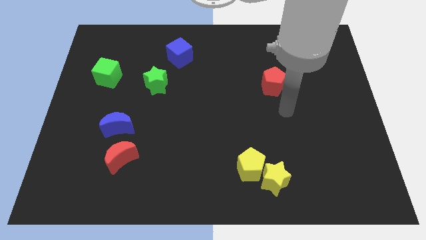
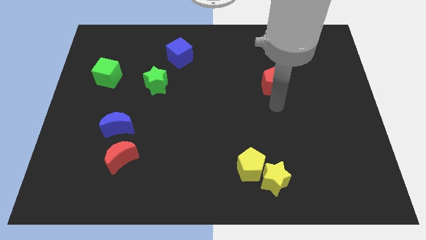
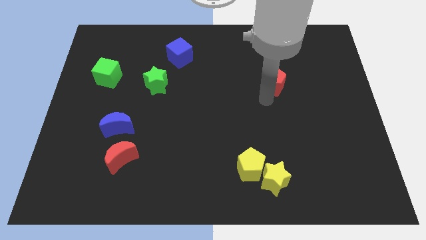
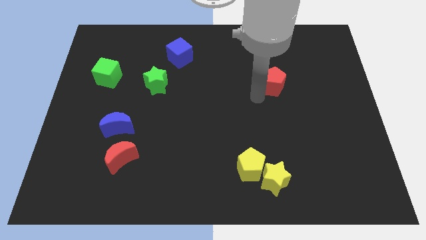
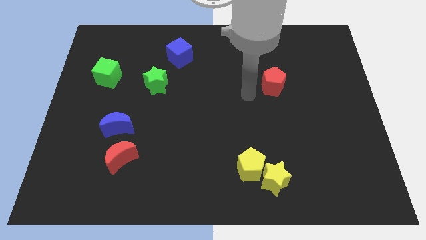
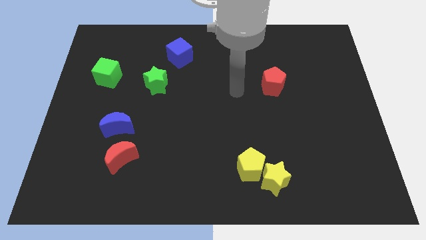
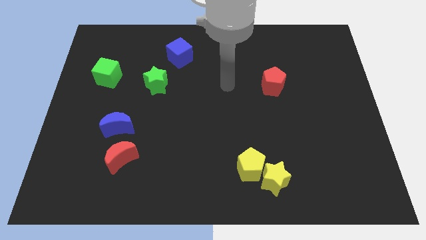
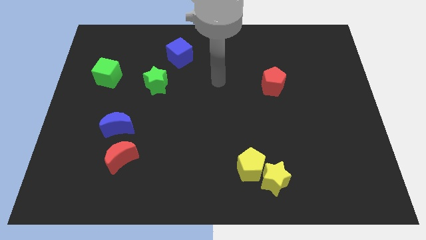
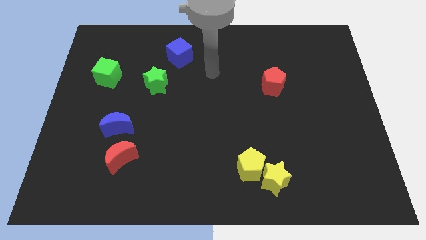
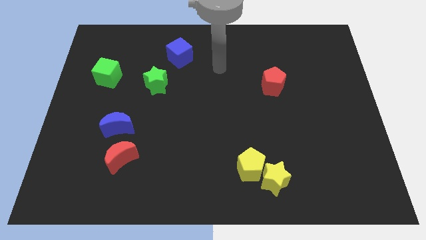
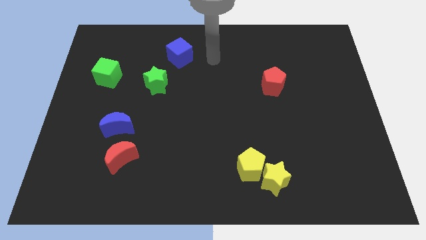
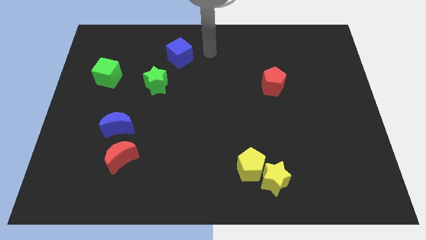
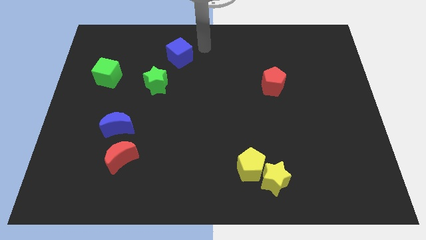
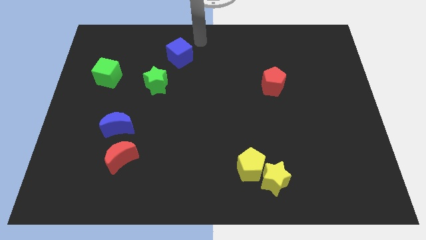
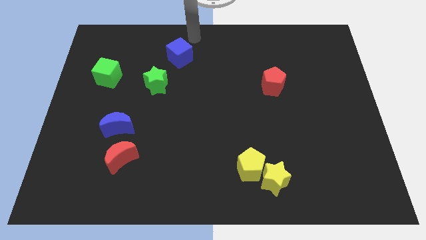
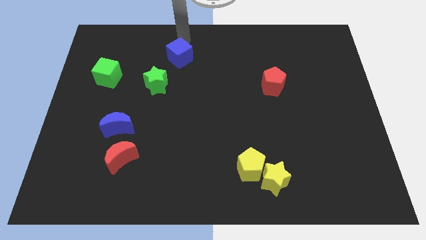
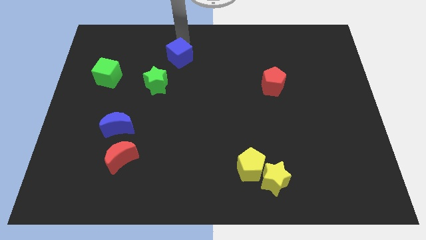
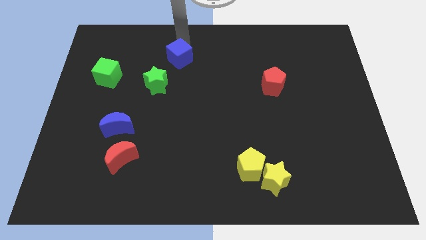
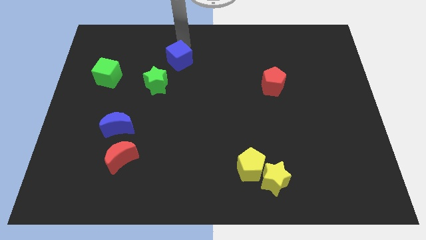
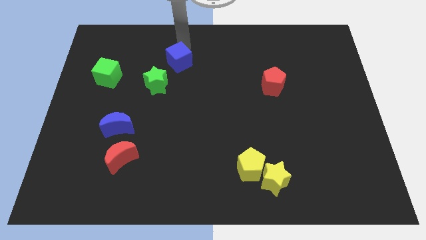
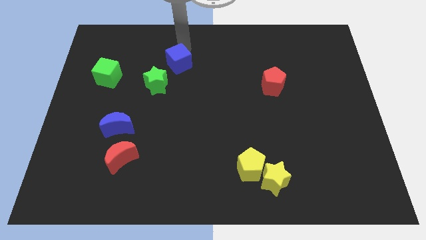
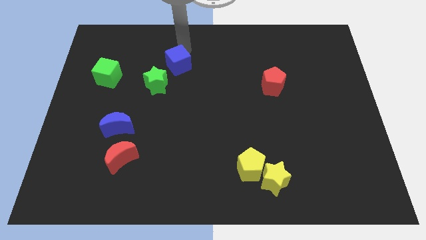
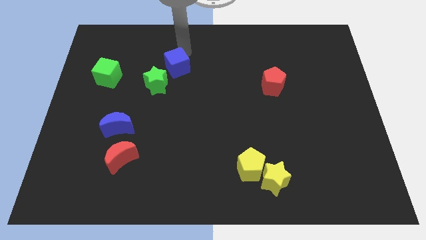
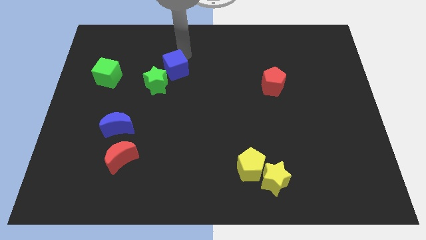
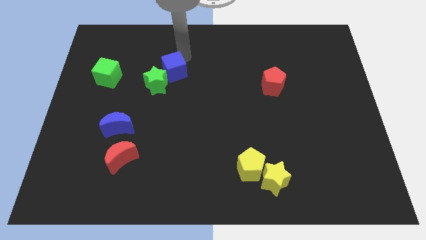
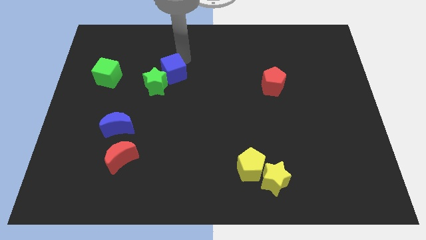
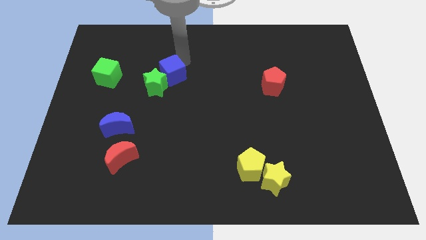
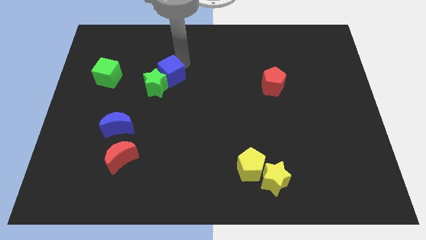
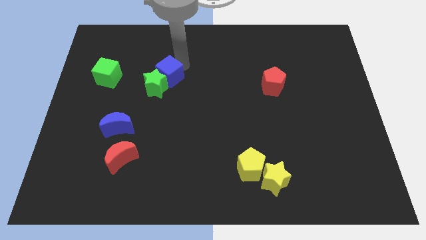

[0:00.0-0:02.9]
move the blue cube a little down

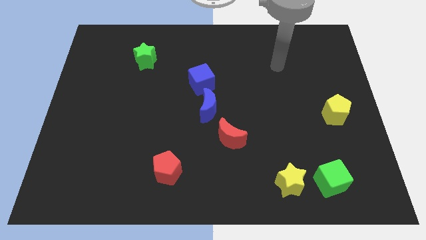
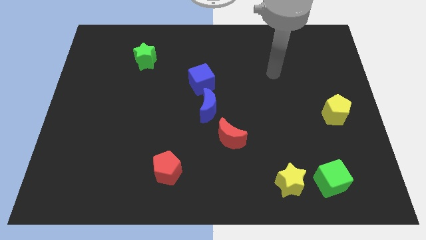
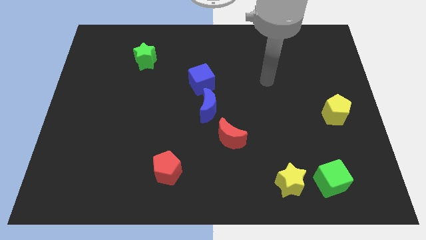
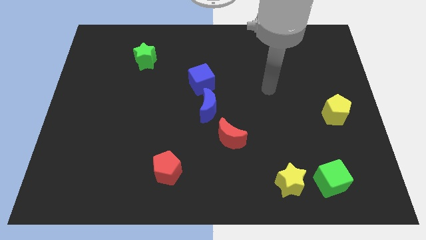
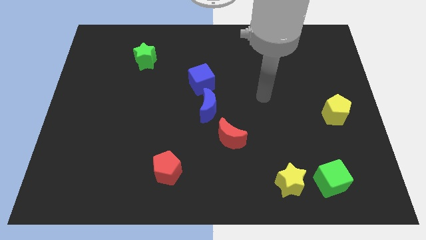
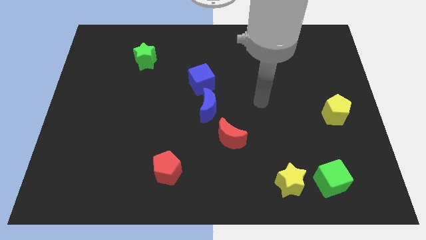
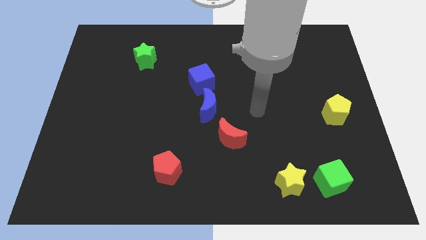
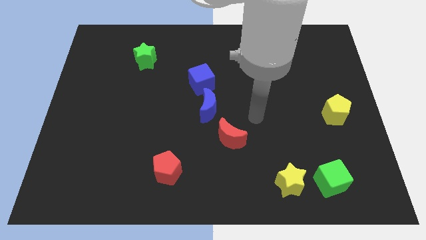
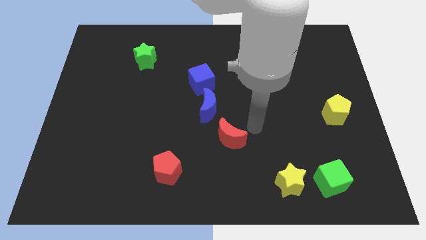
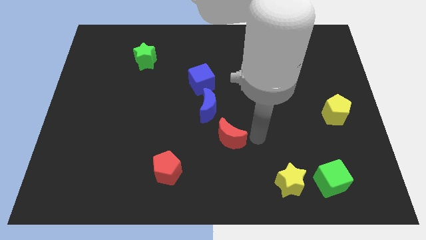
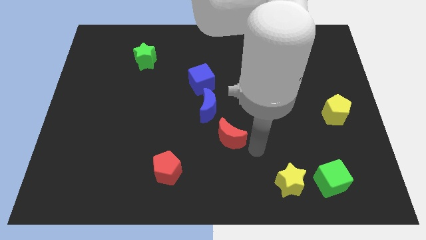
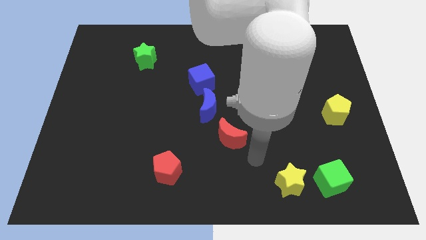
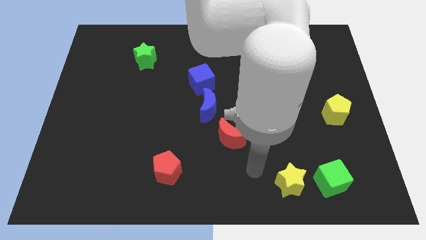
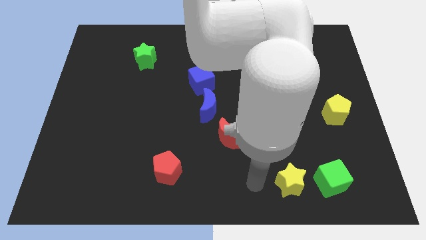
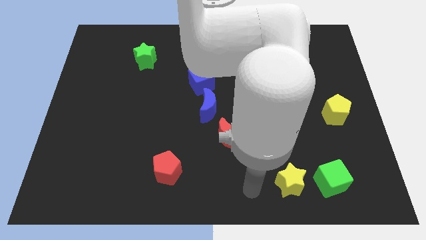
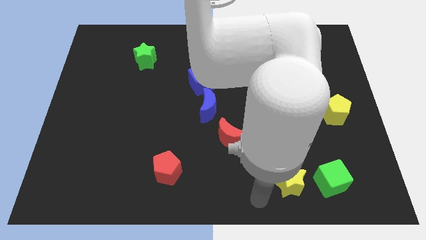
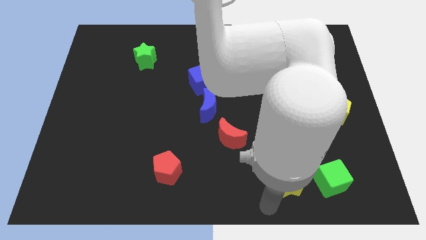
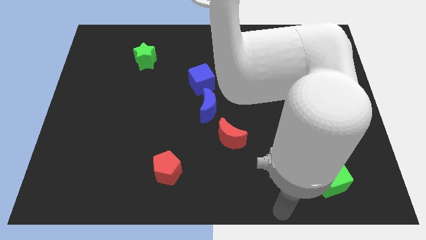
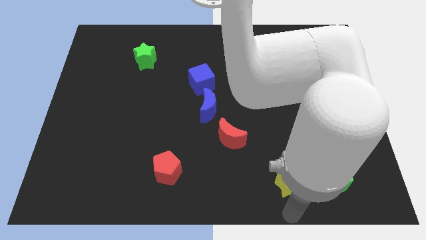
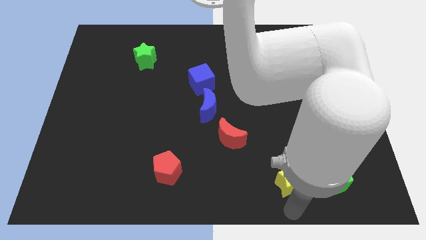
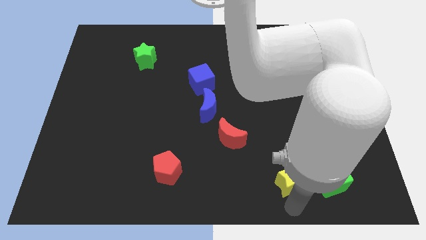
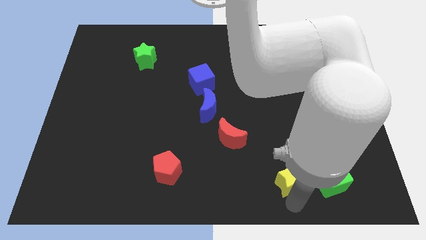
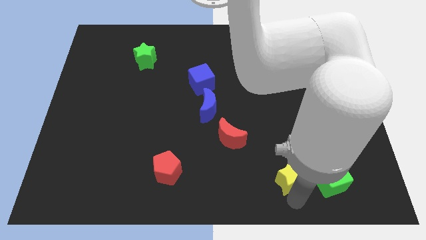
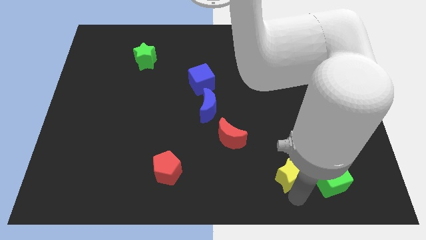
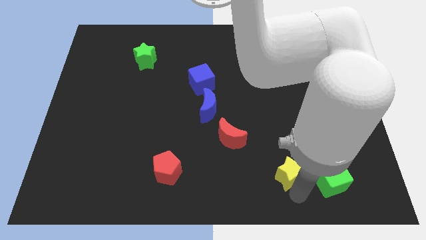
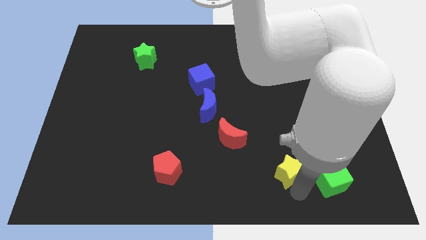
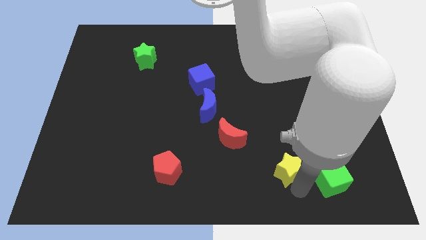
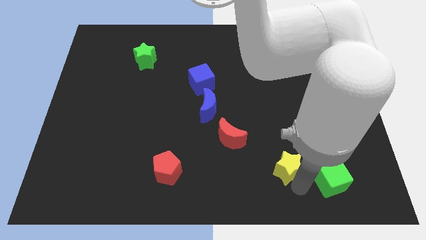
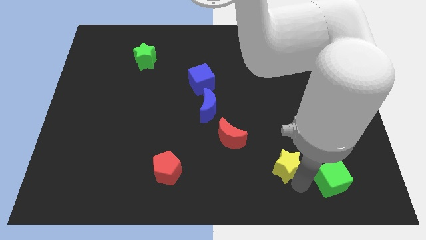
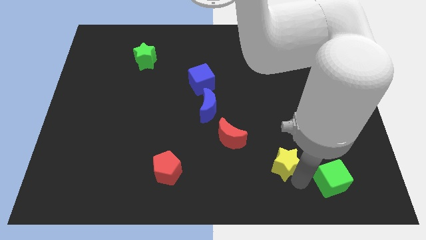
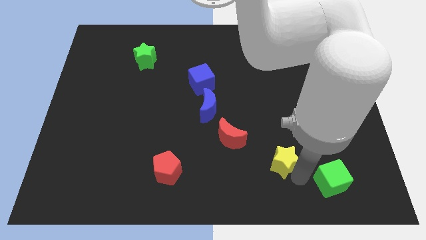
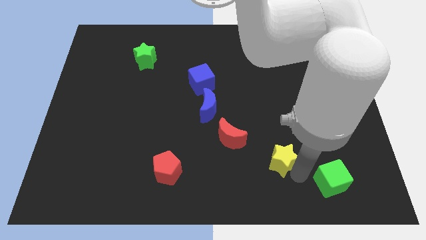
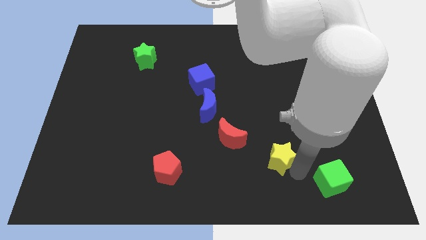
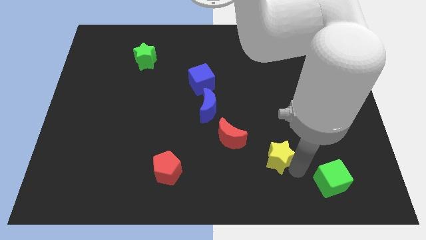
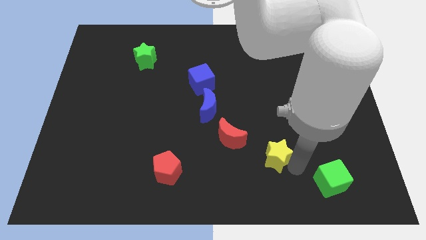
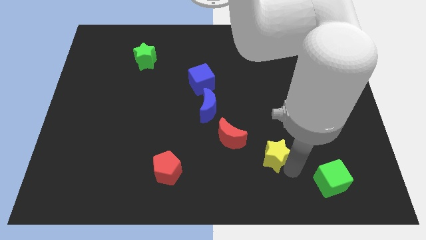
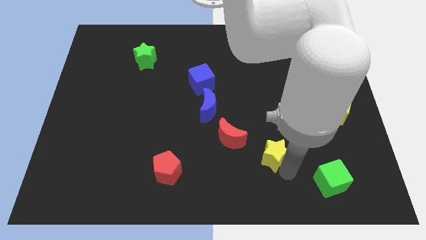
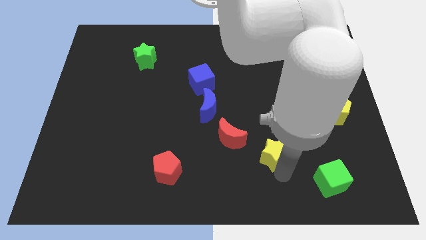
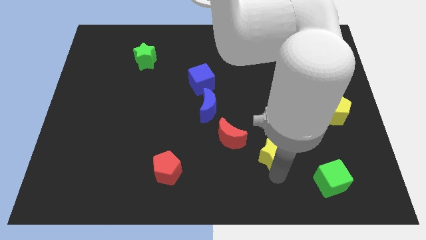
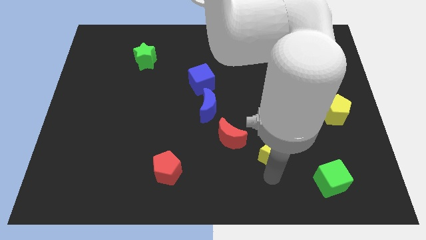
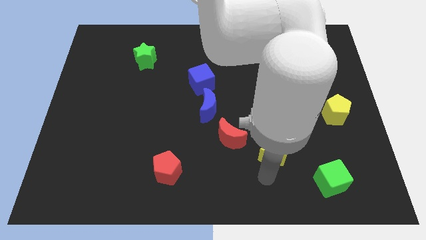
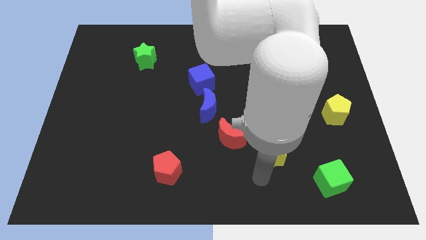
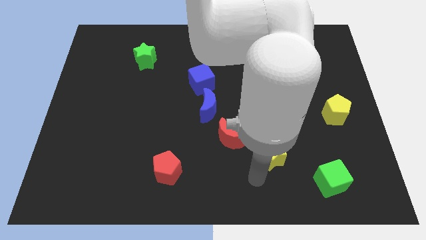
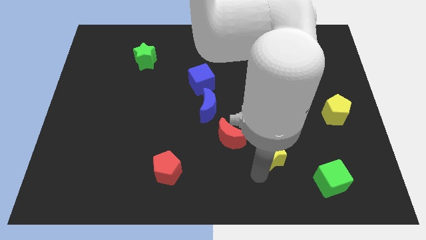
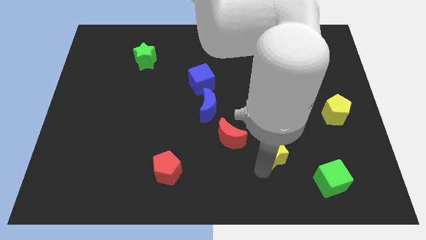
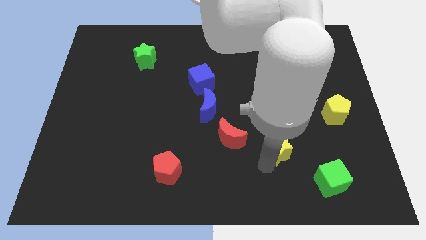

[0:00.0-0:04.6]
slightly slide the yellow star up

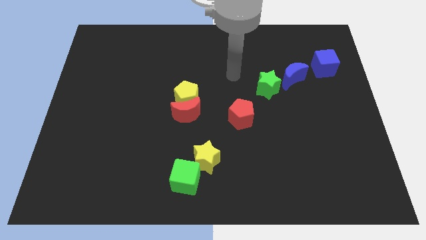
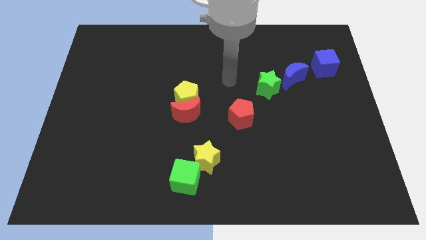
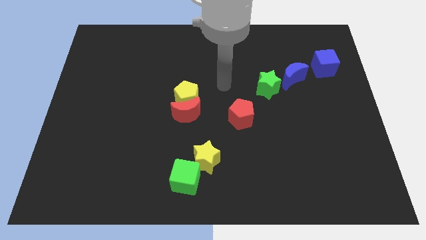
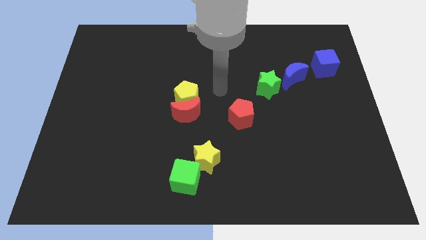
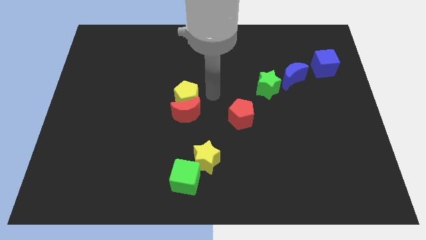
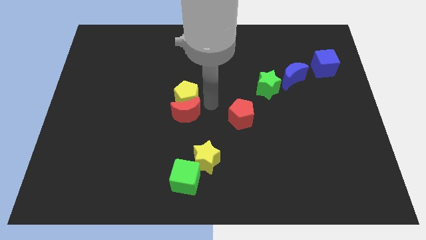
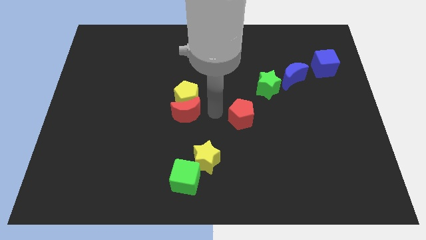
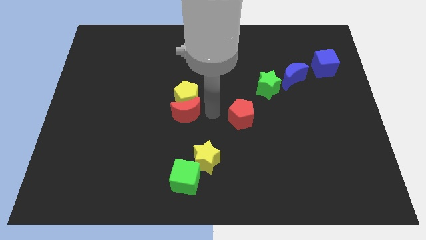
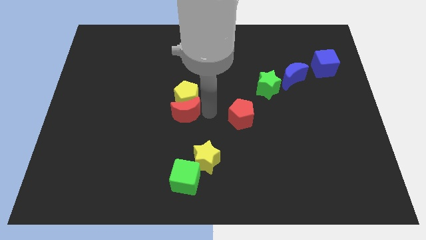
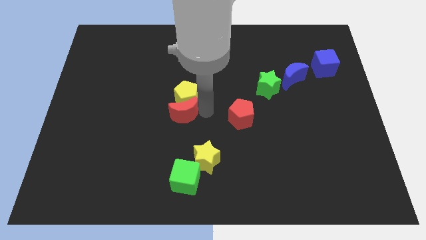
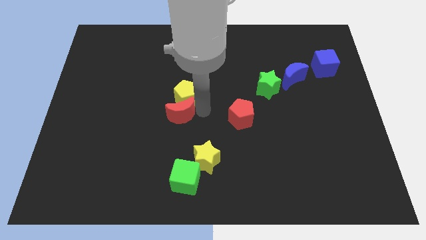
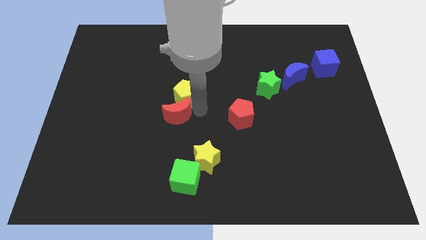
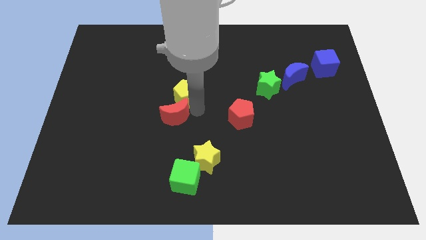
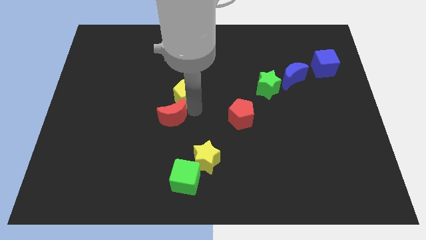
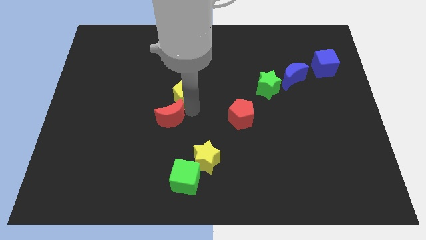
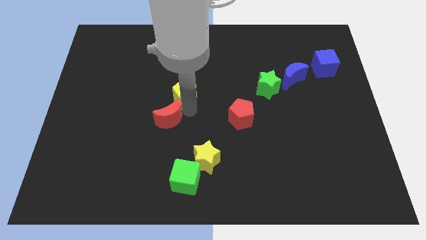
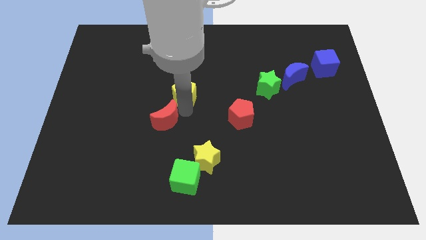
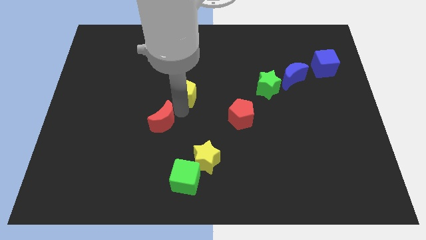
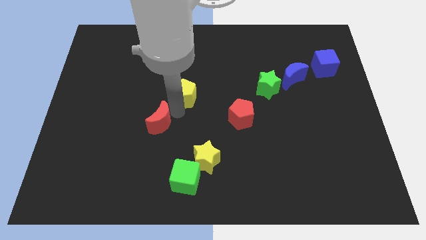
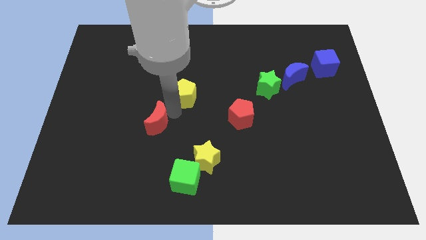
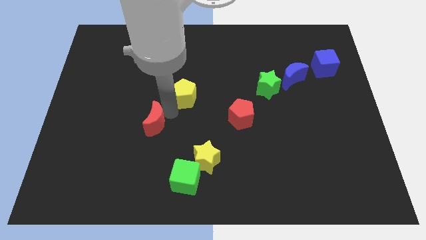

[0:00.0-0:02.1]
push the red moon left a little
